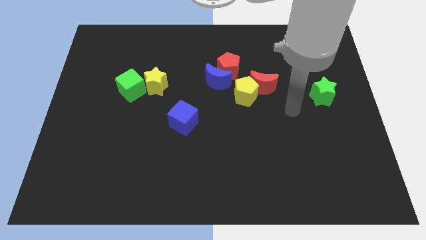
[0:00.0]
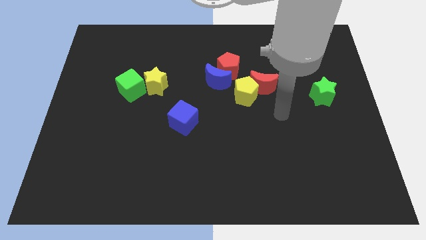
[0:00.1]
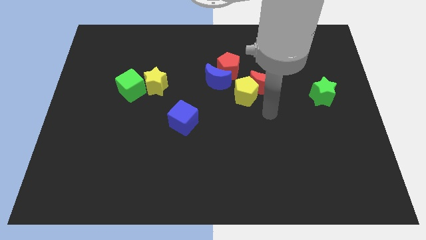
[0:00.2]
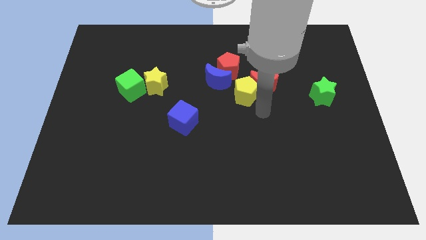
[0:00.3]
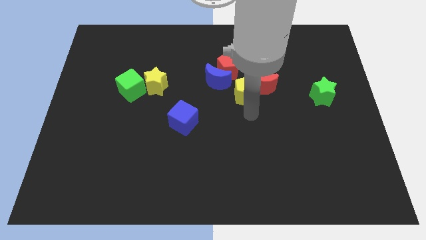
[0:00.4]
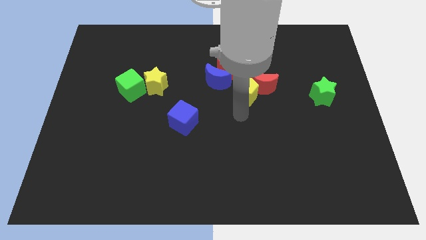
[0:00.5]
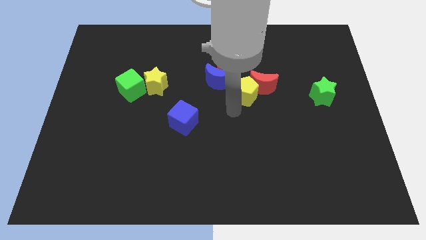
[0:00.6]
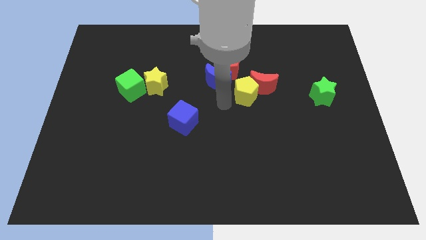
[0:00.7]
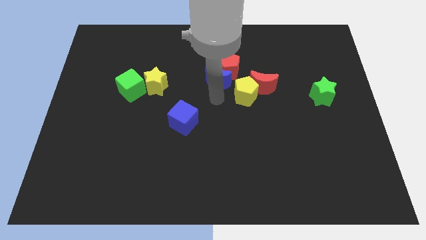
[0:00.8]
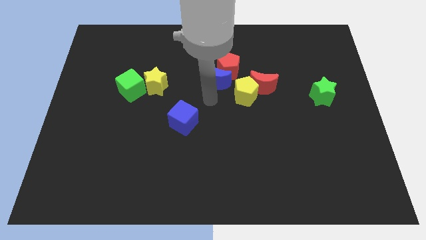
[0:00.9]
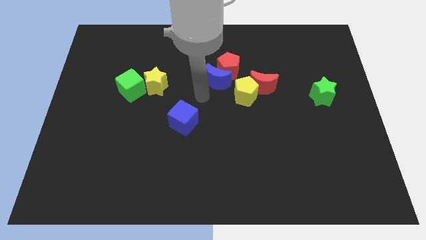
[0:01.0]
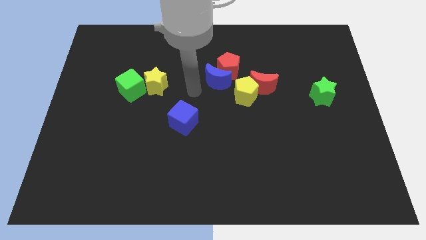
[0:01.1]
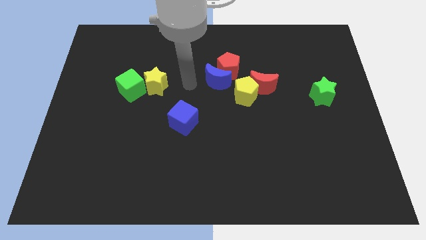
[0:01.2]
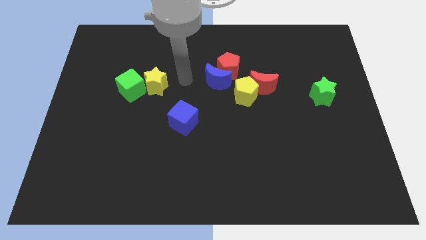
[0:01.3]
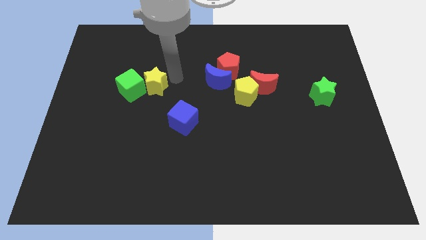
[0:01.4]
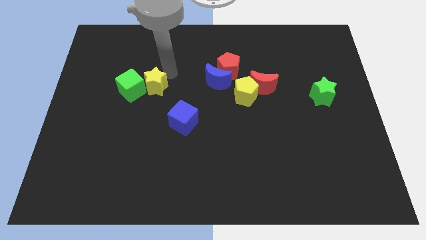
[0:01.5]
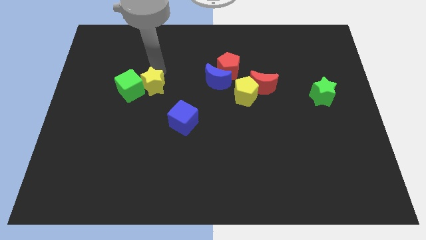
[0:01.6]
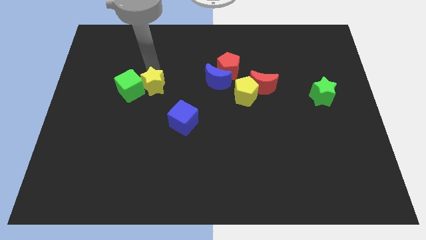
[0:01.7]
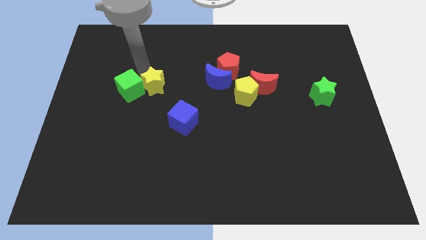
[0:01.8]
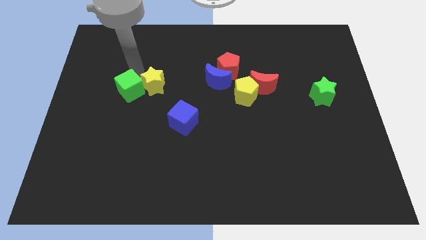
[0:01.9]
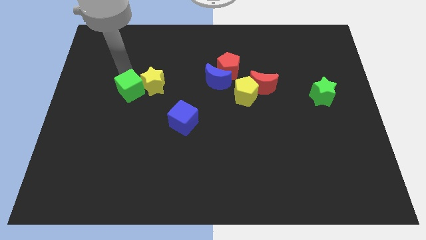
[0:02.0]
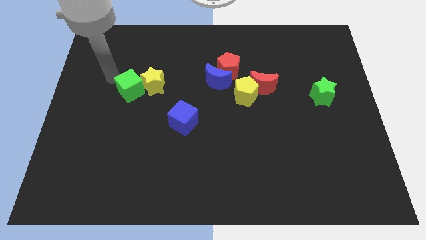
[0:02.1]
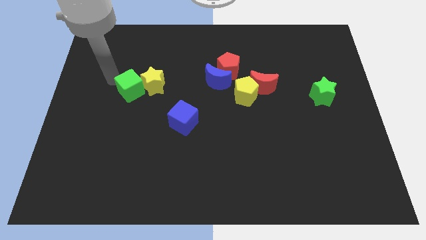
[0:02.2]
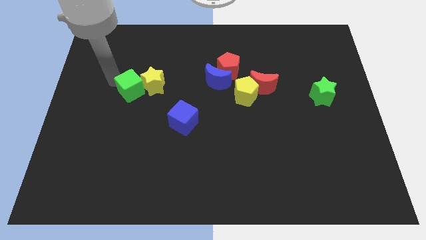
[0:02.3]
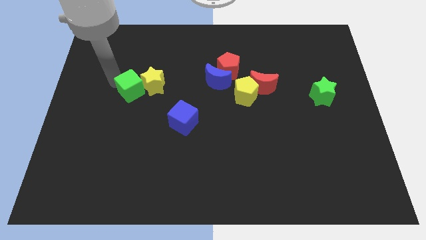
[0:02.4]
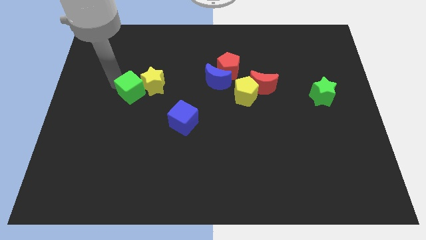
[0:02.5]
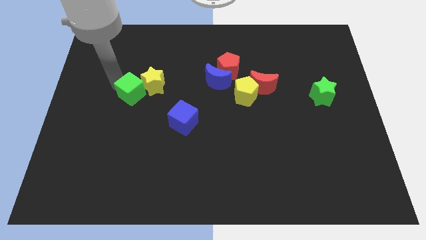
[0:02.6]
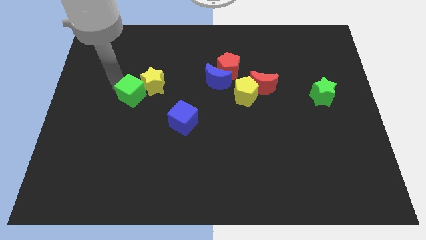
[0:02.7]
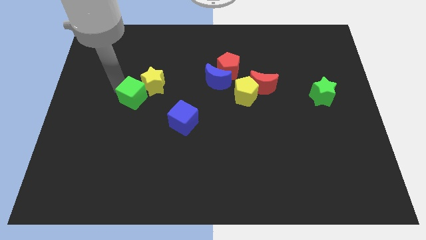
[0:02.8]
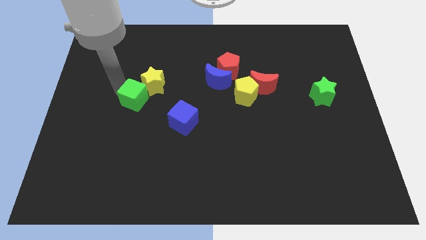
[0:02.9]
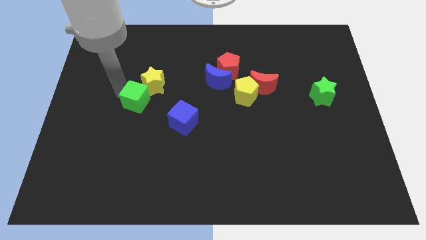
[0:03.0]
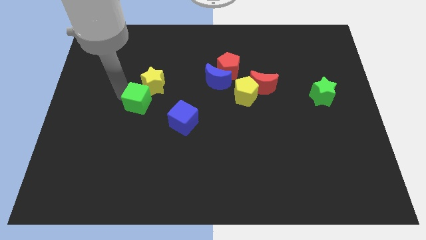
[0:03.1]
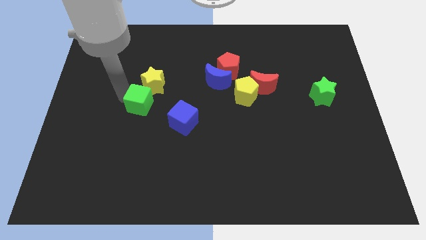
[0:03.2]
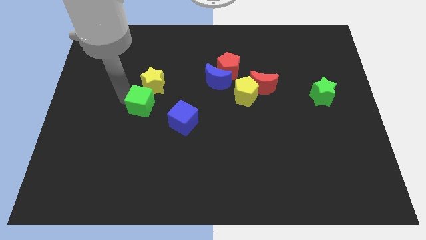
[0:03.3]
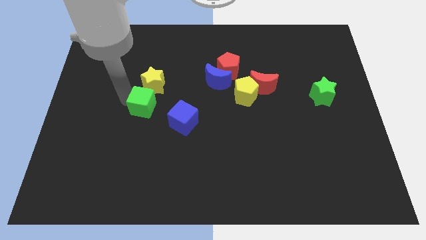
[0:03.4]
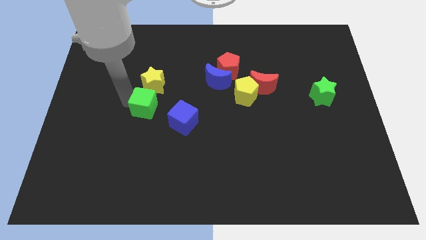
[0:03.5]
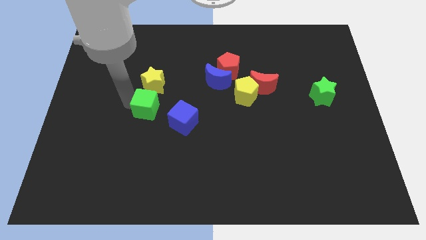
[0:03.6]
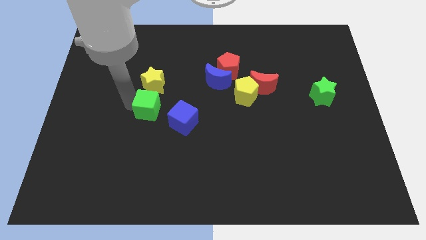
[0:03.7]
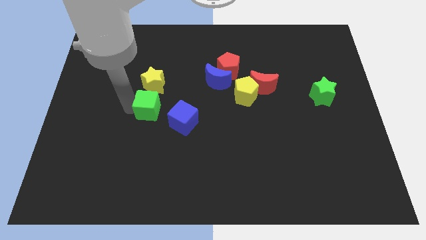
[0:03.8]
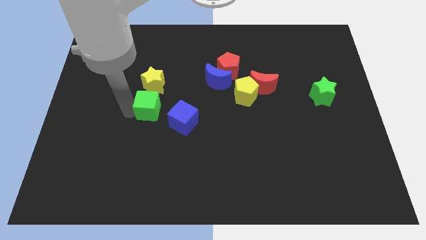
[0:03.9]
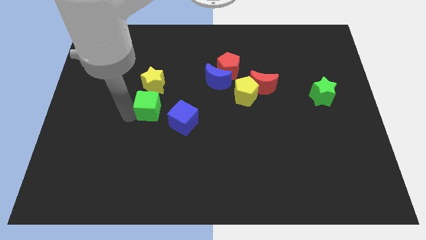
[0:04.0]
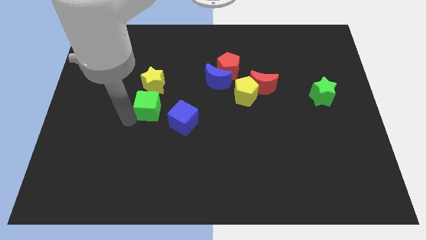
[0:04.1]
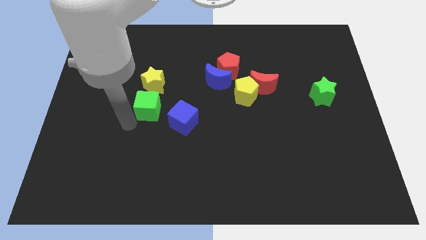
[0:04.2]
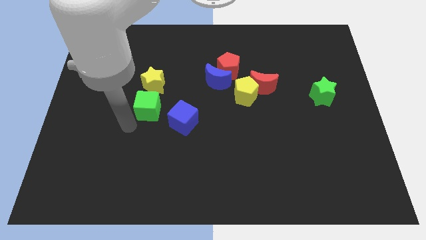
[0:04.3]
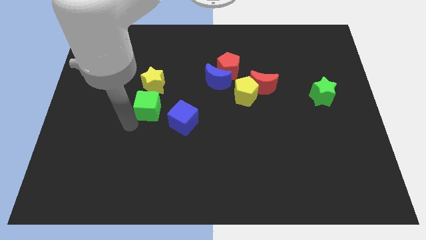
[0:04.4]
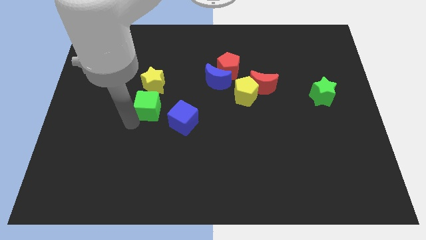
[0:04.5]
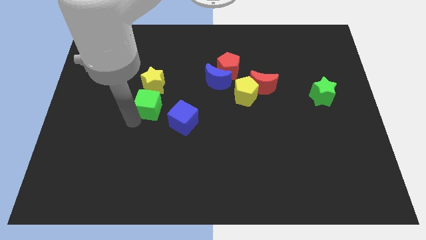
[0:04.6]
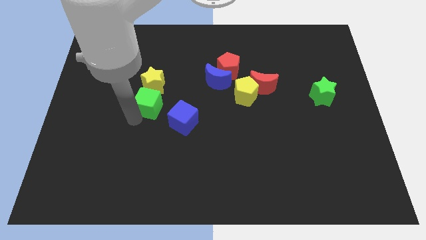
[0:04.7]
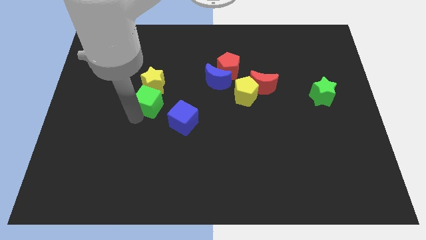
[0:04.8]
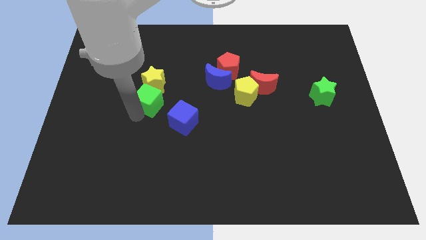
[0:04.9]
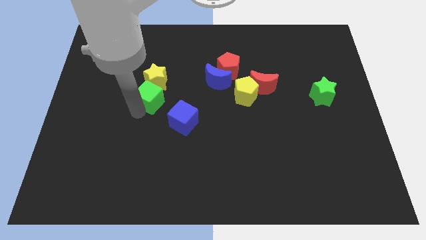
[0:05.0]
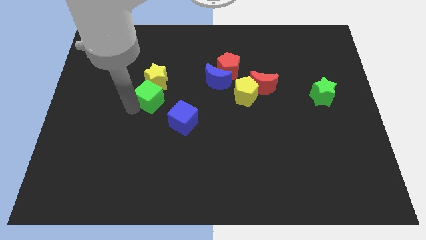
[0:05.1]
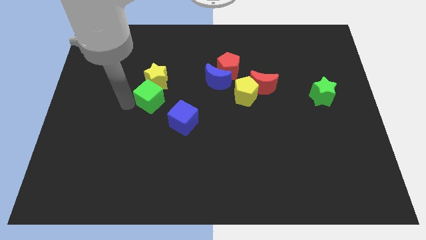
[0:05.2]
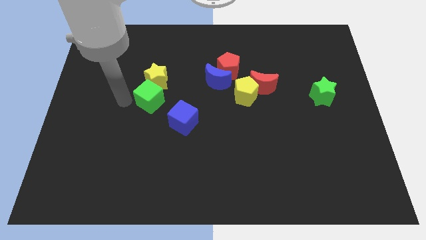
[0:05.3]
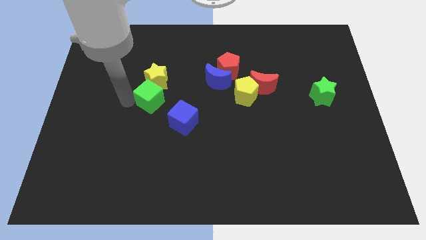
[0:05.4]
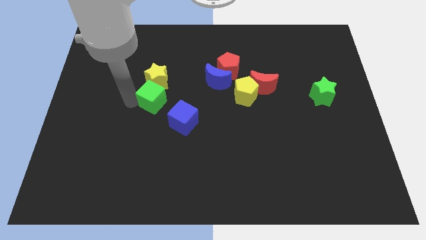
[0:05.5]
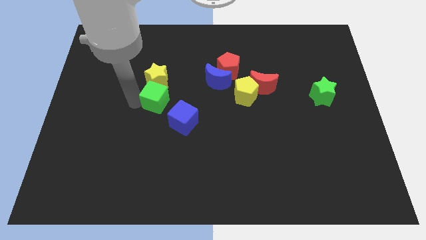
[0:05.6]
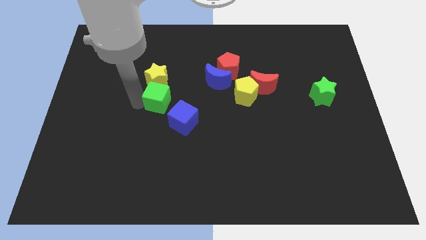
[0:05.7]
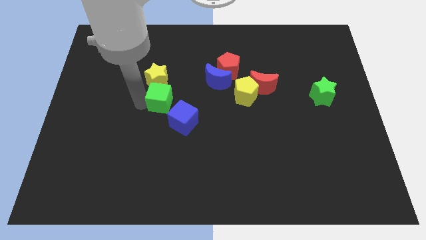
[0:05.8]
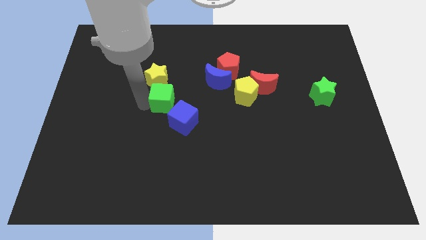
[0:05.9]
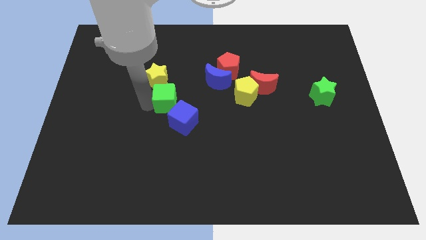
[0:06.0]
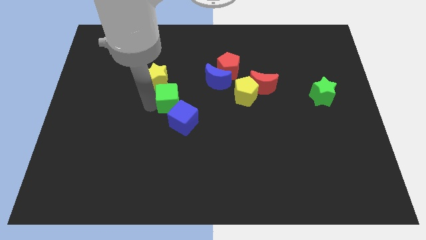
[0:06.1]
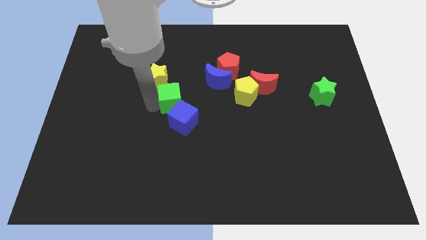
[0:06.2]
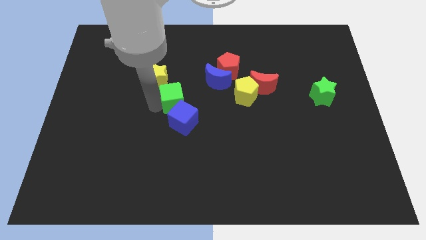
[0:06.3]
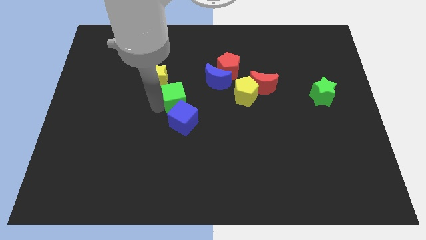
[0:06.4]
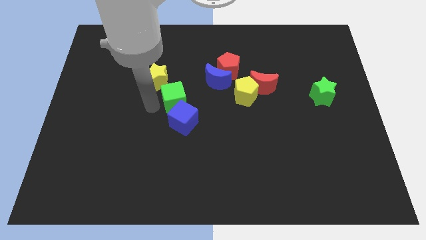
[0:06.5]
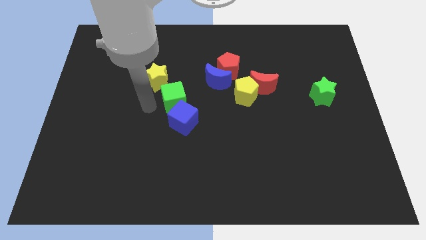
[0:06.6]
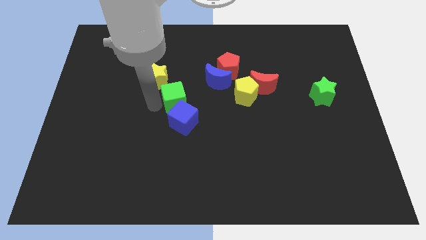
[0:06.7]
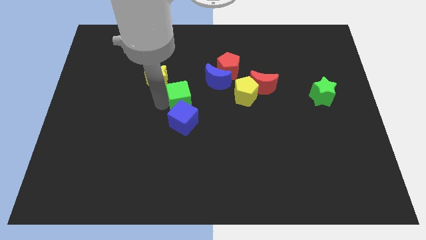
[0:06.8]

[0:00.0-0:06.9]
move the green cube to the left of the yellow pentagon
